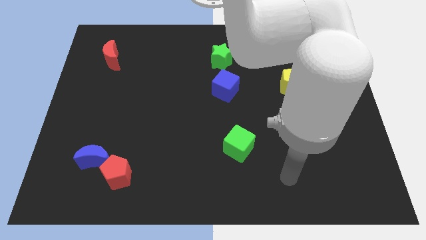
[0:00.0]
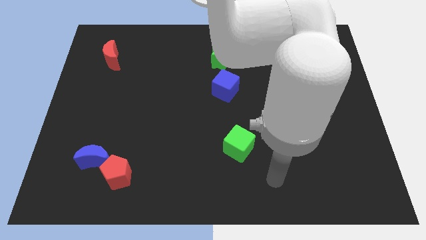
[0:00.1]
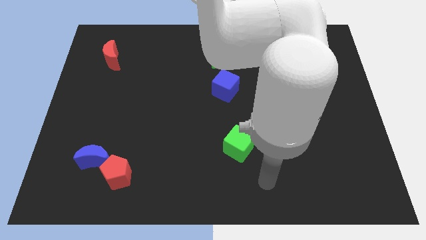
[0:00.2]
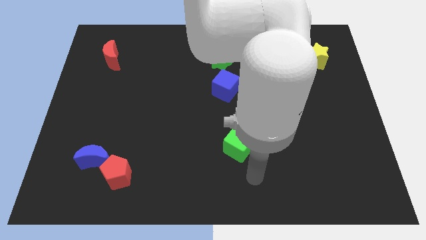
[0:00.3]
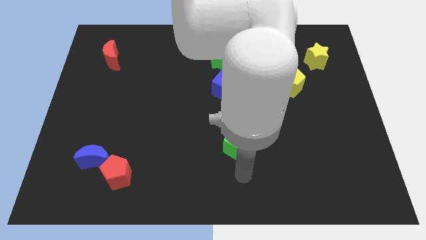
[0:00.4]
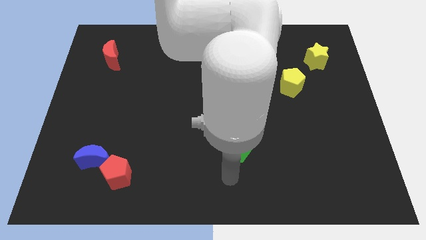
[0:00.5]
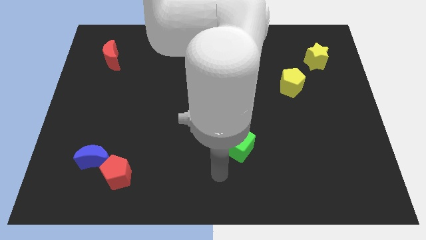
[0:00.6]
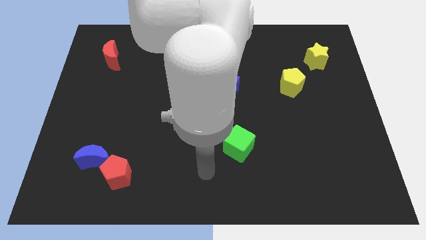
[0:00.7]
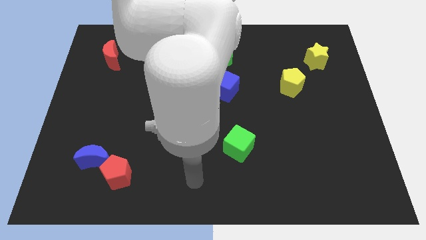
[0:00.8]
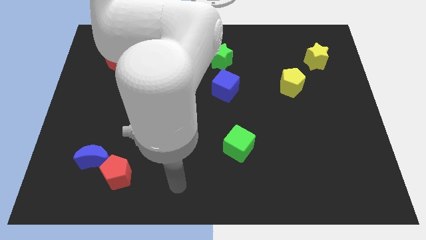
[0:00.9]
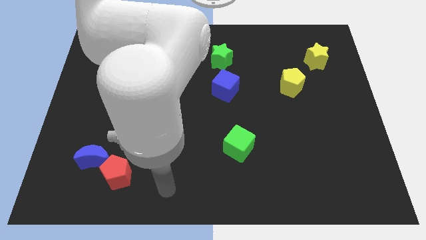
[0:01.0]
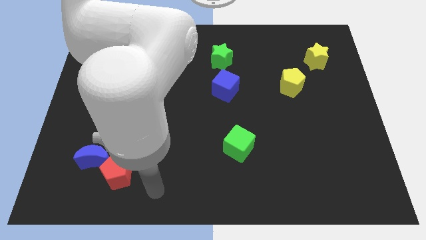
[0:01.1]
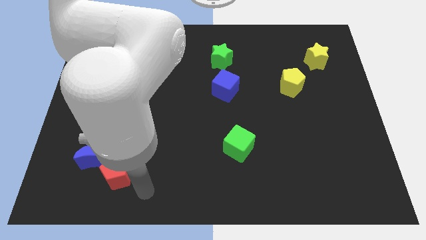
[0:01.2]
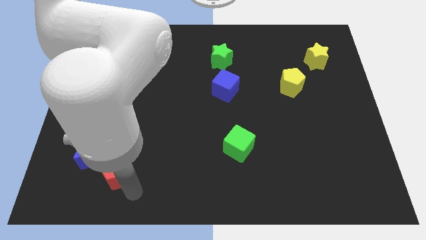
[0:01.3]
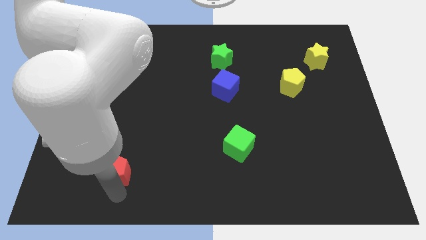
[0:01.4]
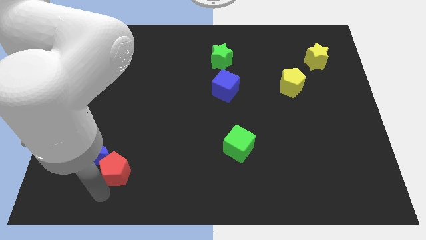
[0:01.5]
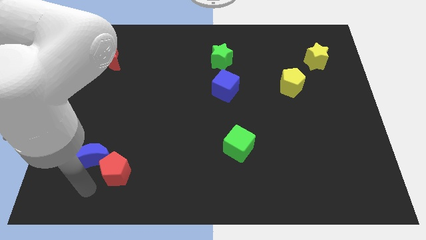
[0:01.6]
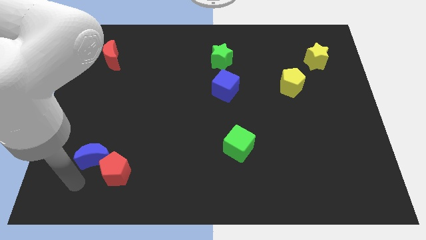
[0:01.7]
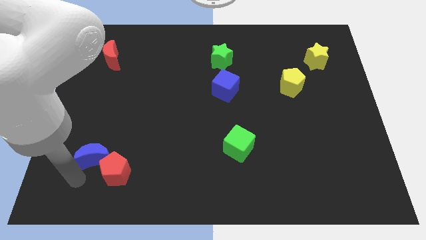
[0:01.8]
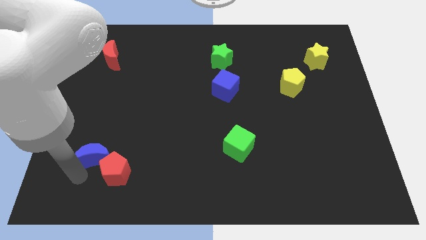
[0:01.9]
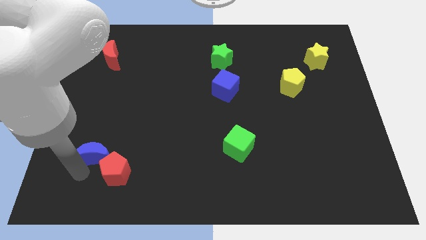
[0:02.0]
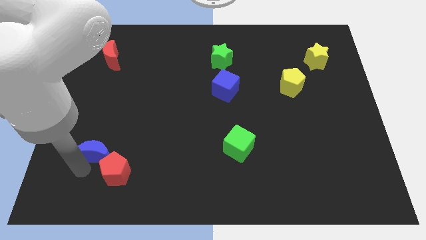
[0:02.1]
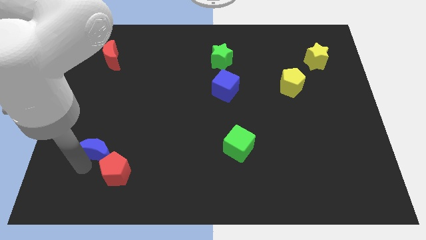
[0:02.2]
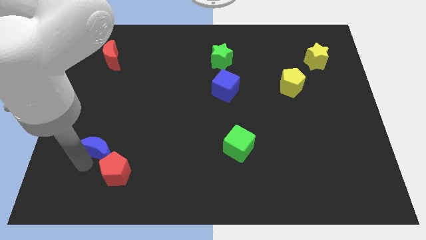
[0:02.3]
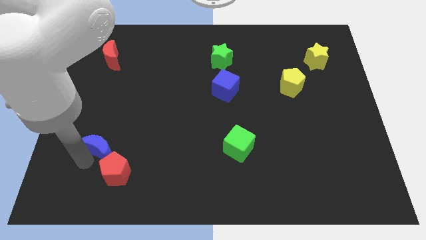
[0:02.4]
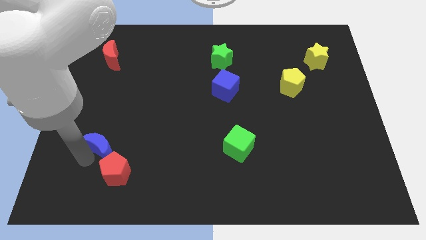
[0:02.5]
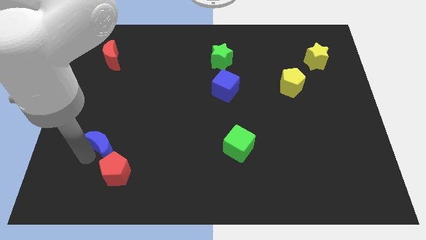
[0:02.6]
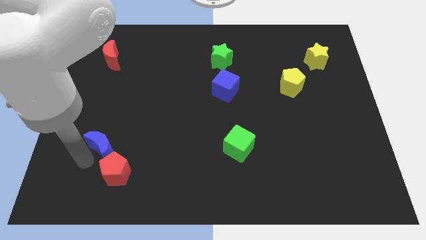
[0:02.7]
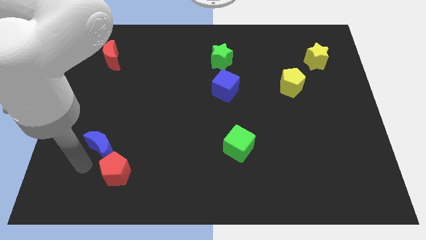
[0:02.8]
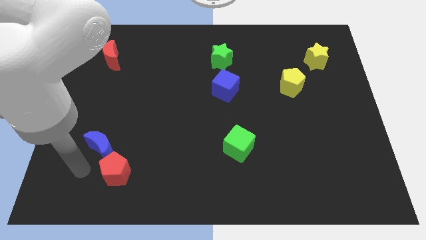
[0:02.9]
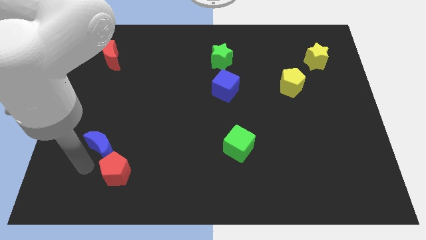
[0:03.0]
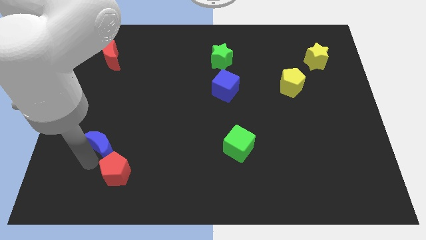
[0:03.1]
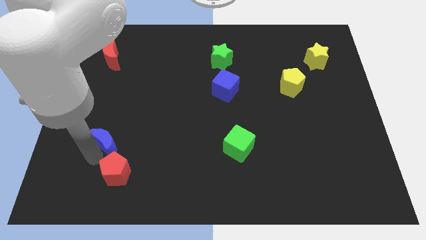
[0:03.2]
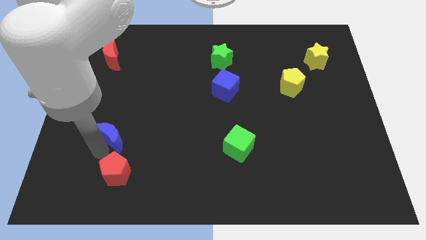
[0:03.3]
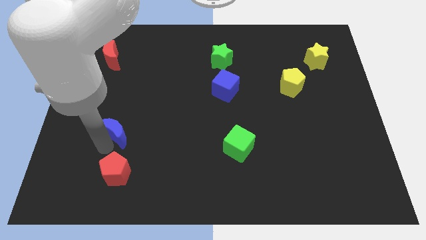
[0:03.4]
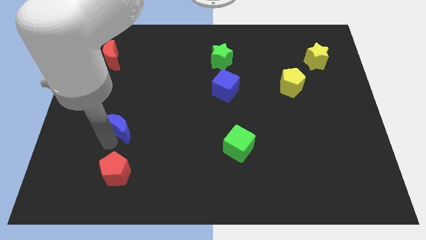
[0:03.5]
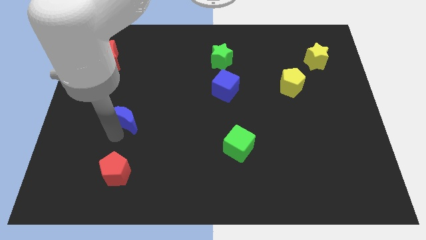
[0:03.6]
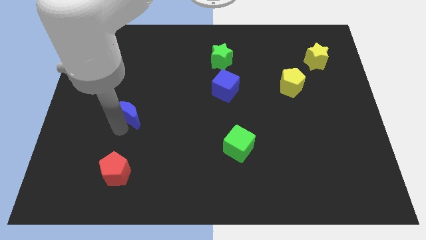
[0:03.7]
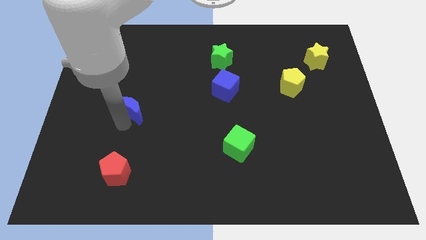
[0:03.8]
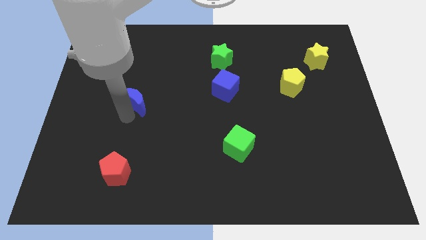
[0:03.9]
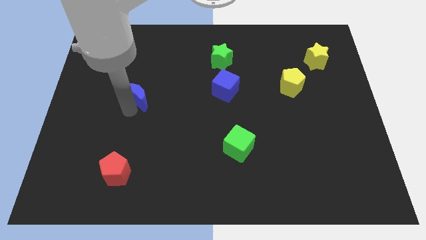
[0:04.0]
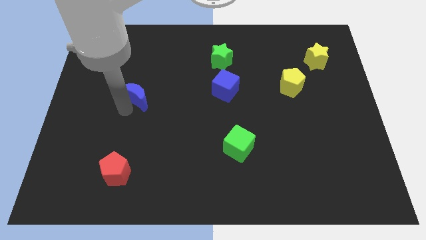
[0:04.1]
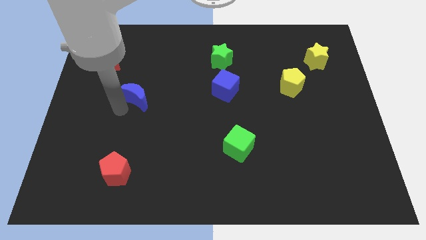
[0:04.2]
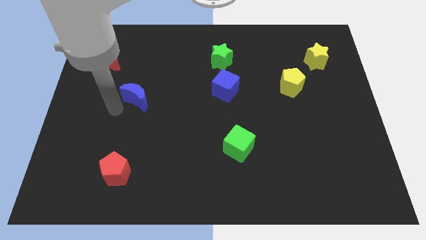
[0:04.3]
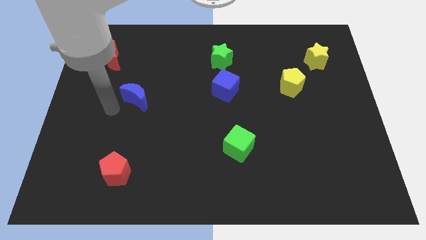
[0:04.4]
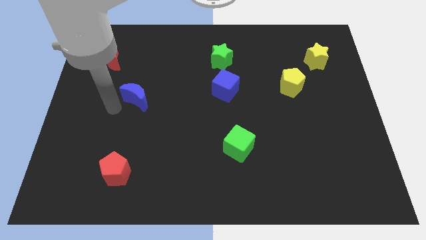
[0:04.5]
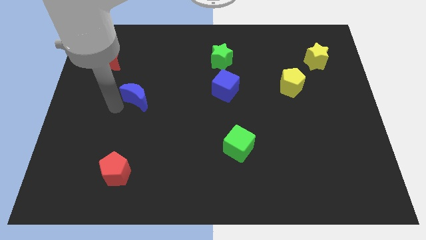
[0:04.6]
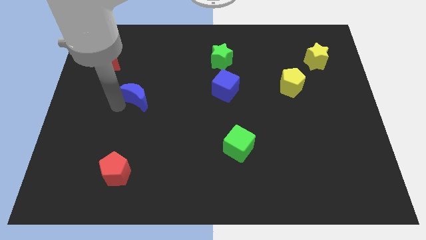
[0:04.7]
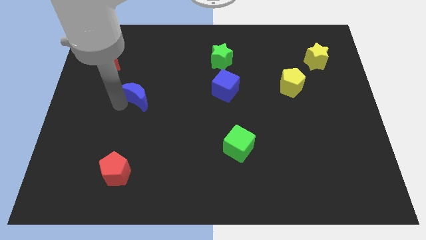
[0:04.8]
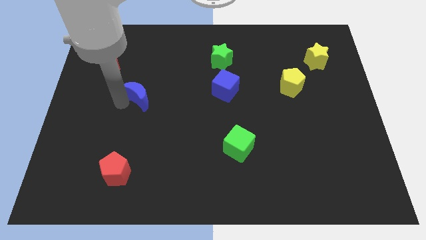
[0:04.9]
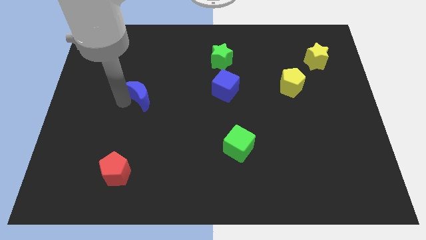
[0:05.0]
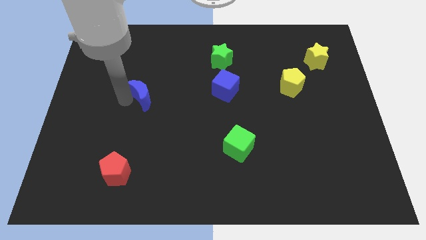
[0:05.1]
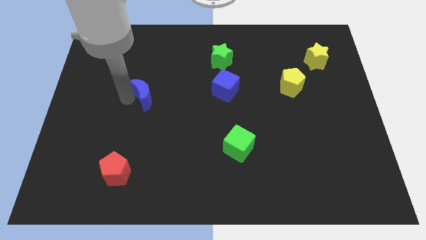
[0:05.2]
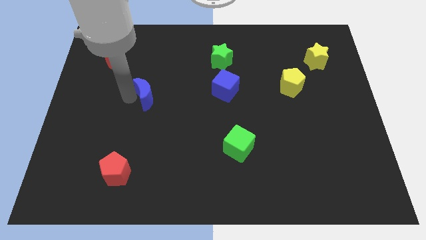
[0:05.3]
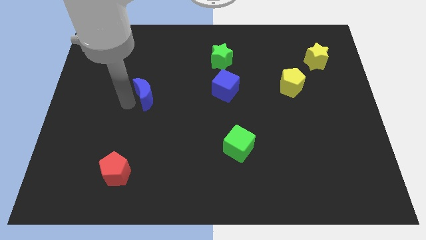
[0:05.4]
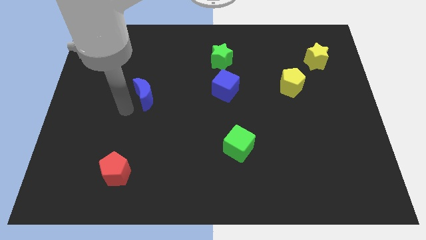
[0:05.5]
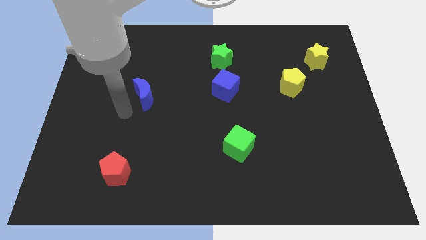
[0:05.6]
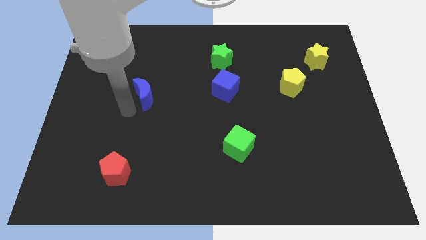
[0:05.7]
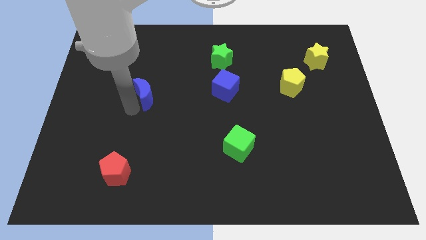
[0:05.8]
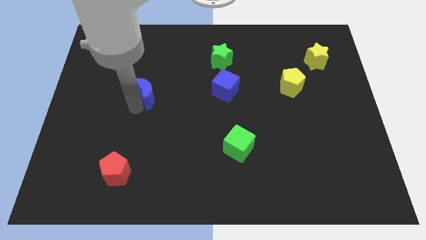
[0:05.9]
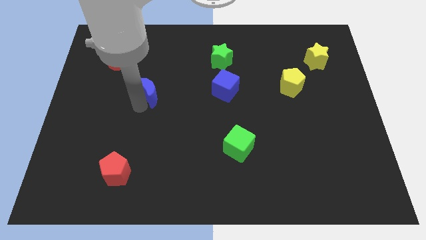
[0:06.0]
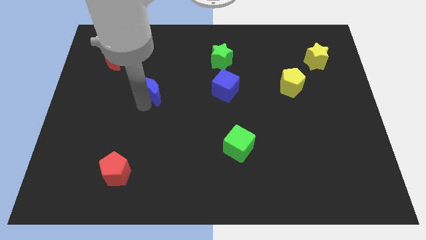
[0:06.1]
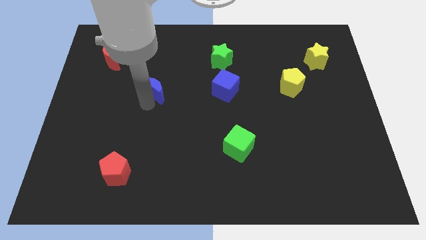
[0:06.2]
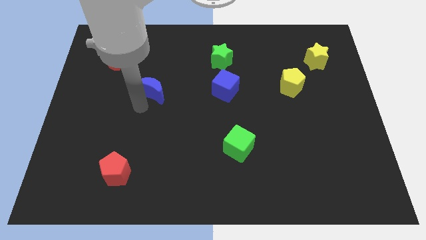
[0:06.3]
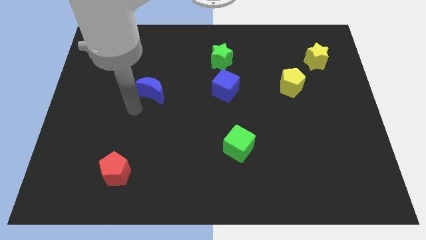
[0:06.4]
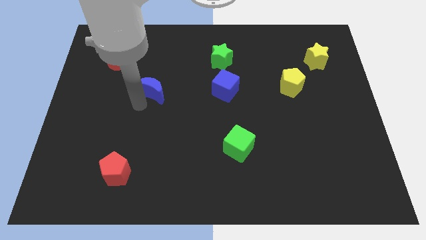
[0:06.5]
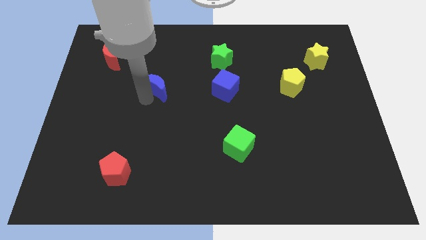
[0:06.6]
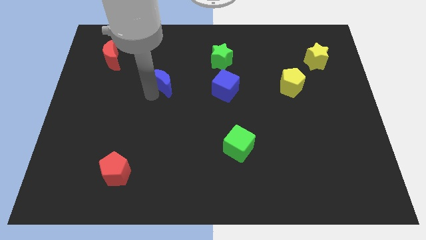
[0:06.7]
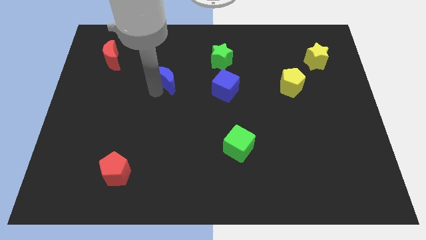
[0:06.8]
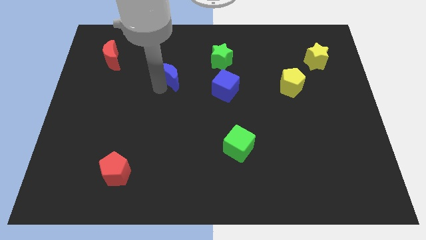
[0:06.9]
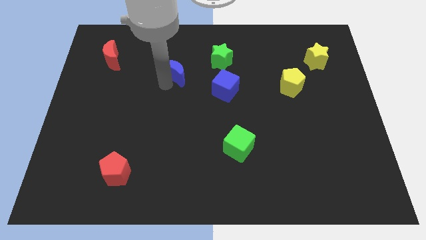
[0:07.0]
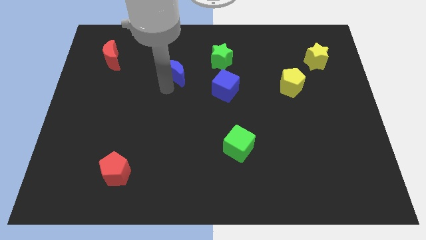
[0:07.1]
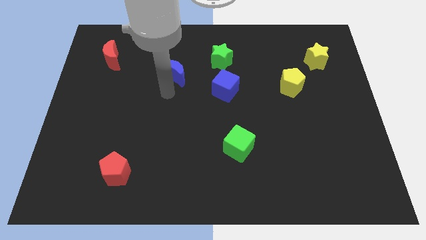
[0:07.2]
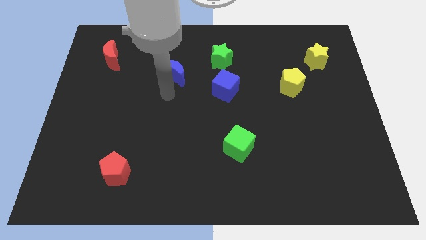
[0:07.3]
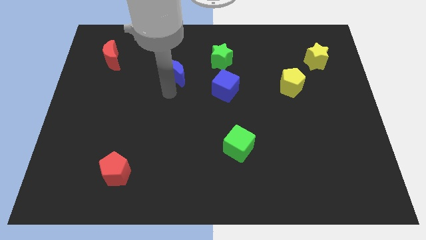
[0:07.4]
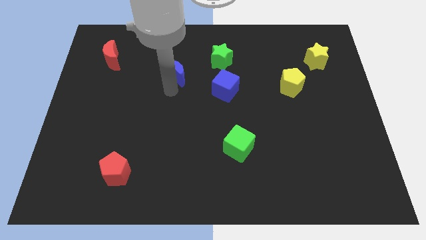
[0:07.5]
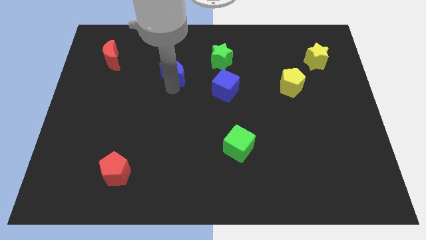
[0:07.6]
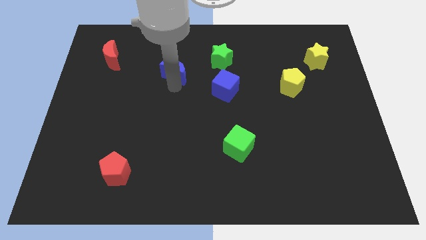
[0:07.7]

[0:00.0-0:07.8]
put the blue moon left of the green star
